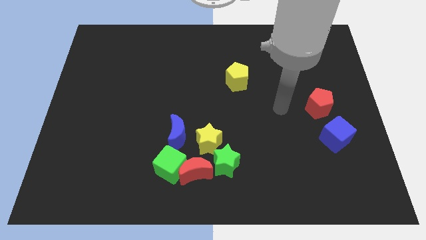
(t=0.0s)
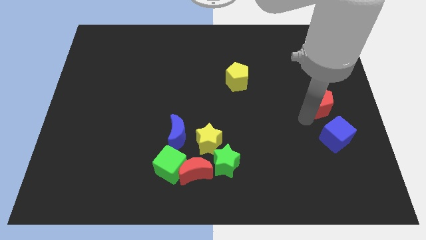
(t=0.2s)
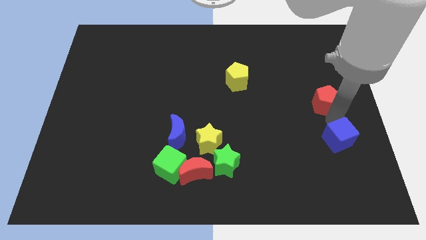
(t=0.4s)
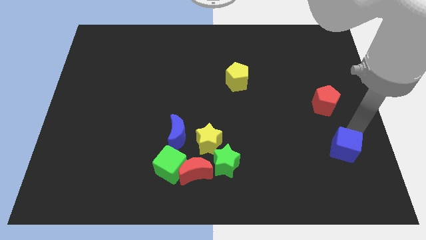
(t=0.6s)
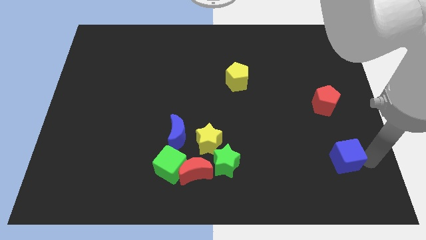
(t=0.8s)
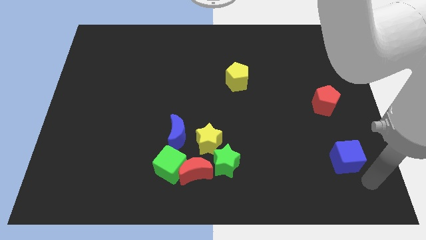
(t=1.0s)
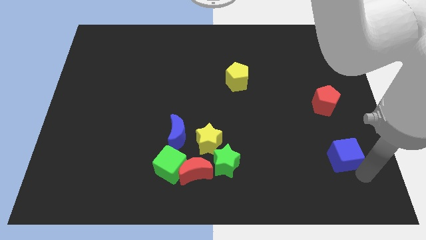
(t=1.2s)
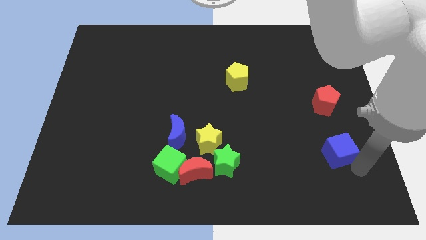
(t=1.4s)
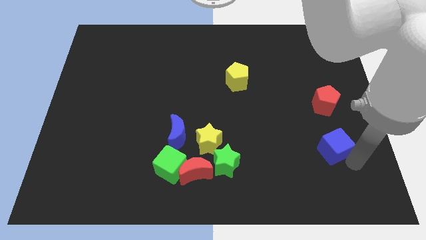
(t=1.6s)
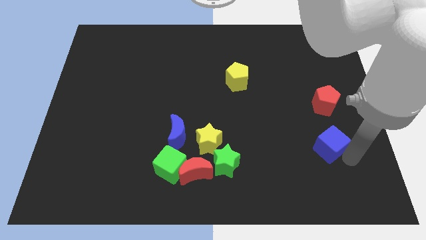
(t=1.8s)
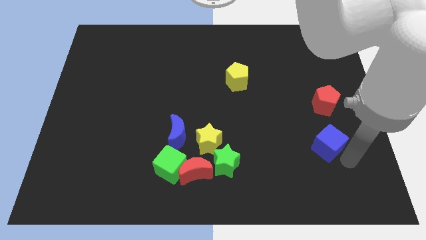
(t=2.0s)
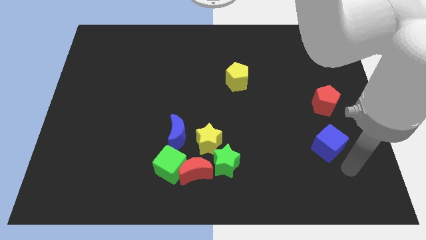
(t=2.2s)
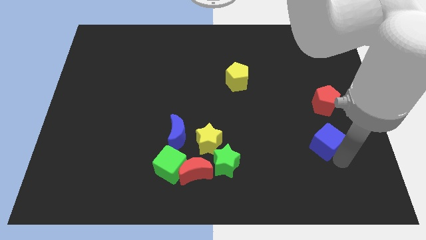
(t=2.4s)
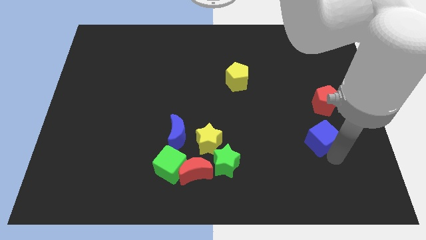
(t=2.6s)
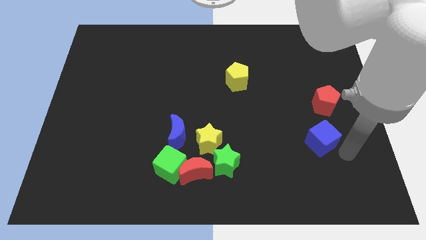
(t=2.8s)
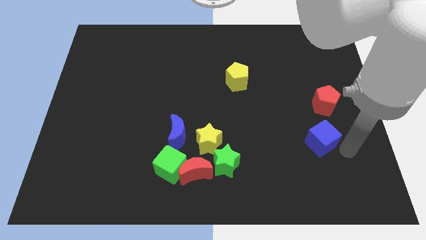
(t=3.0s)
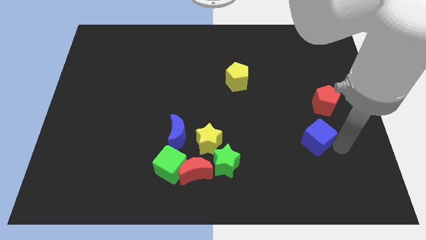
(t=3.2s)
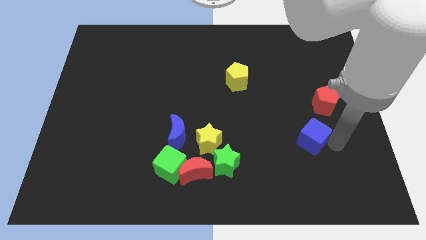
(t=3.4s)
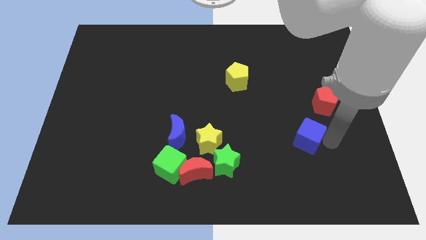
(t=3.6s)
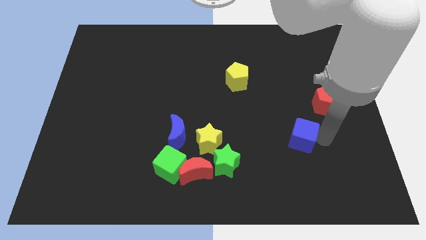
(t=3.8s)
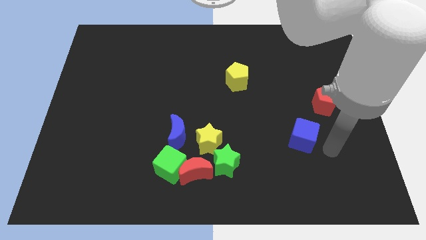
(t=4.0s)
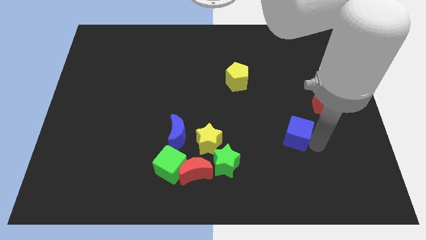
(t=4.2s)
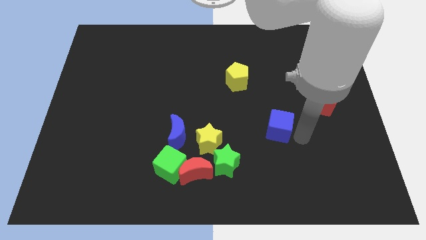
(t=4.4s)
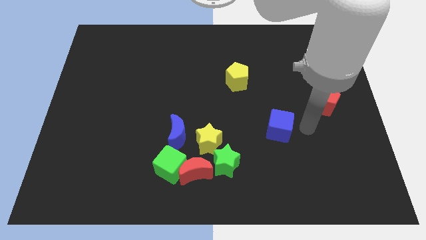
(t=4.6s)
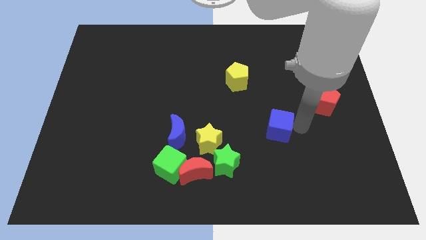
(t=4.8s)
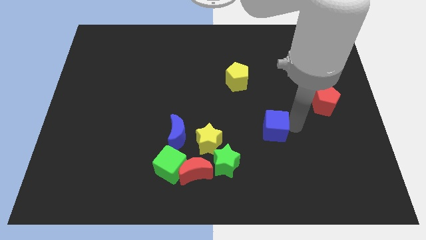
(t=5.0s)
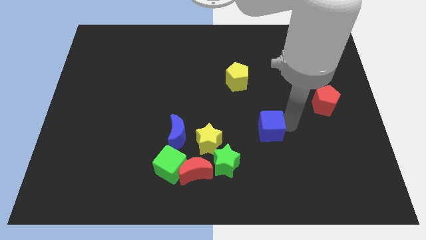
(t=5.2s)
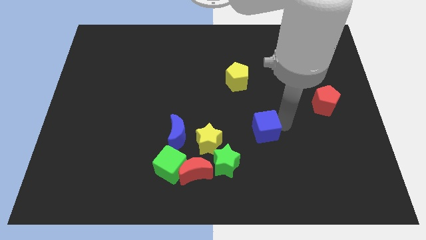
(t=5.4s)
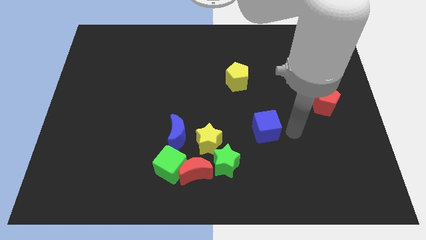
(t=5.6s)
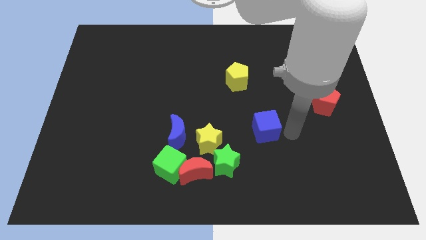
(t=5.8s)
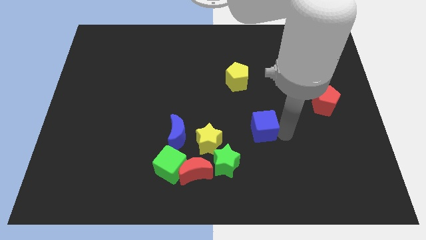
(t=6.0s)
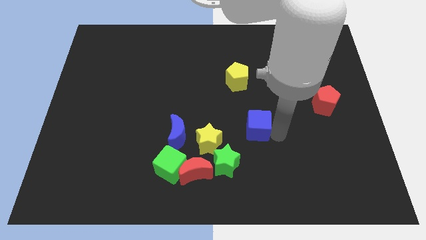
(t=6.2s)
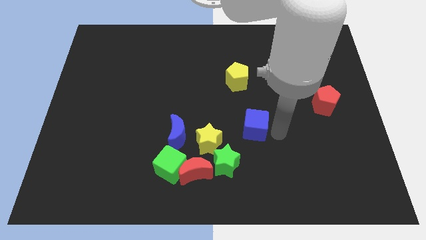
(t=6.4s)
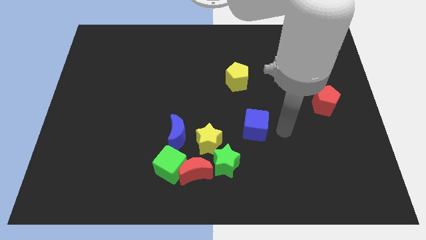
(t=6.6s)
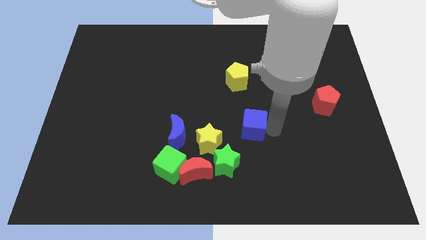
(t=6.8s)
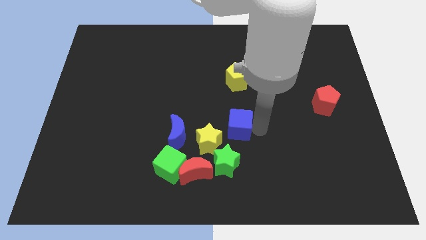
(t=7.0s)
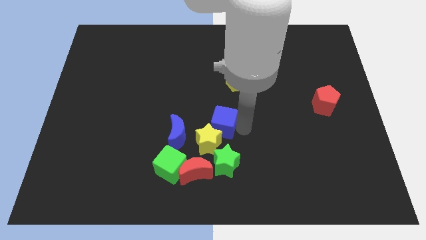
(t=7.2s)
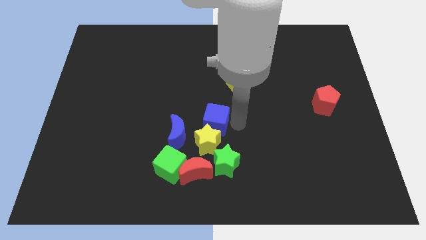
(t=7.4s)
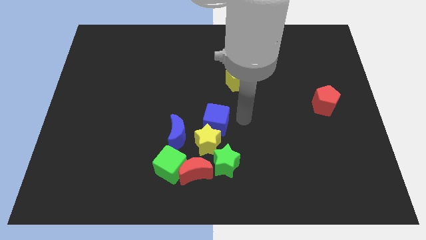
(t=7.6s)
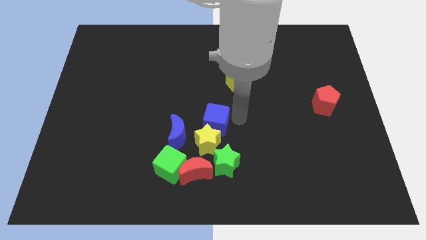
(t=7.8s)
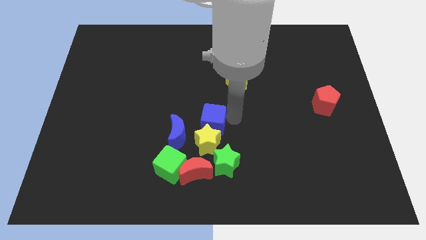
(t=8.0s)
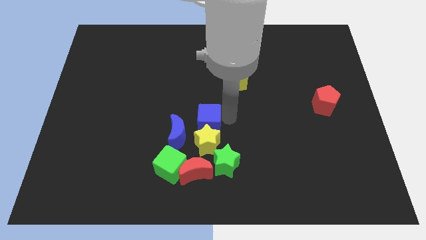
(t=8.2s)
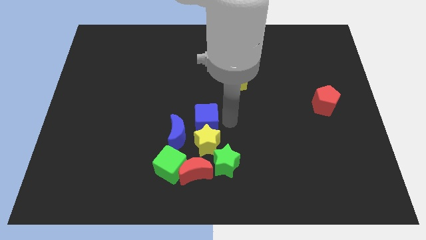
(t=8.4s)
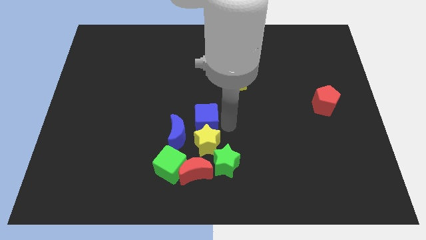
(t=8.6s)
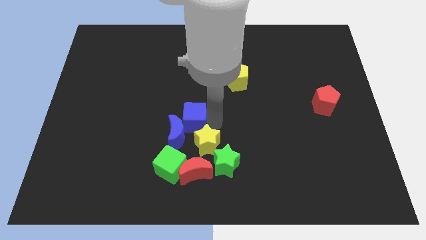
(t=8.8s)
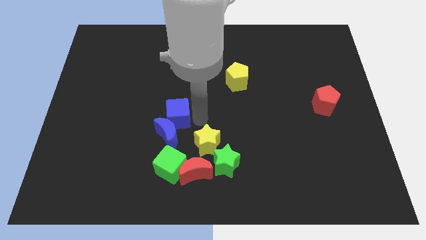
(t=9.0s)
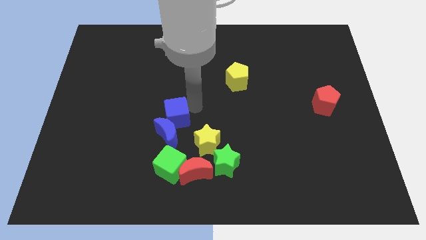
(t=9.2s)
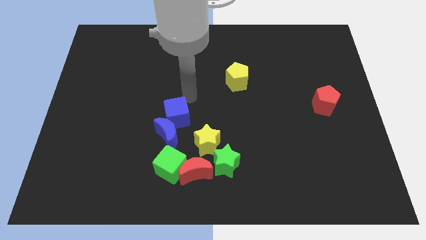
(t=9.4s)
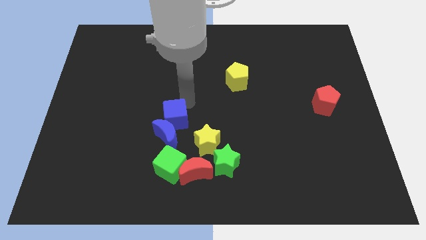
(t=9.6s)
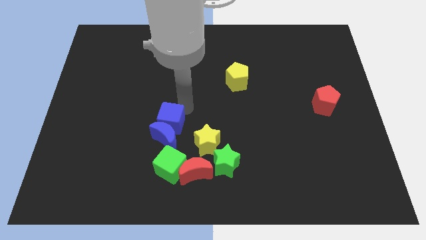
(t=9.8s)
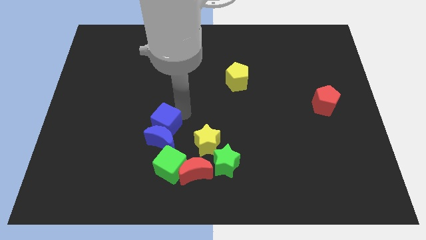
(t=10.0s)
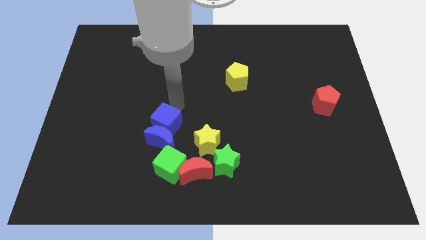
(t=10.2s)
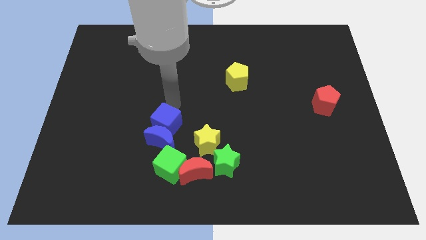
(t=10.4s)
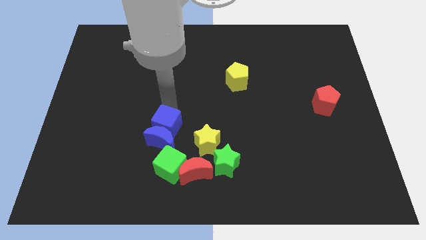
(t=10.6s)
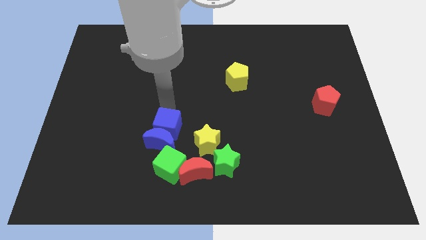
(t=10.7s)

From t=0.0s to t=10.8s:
put the blue cube to the left side of the yellow star
